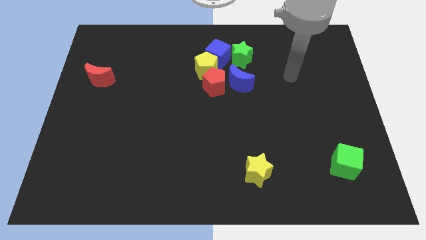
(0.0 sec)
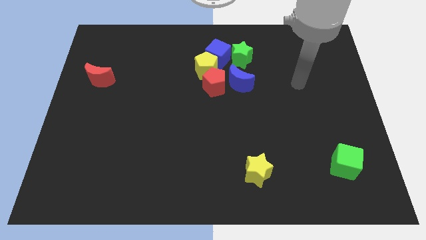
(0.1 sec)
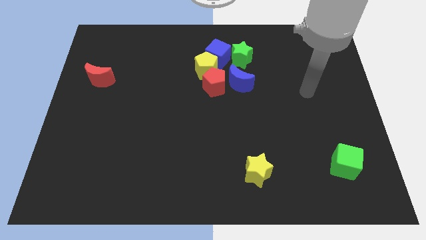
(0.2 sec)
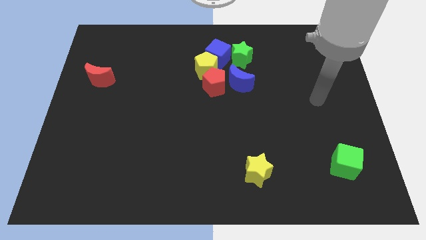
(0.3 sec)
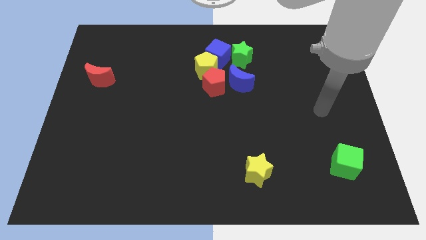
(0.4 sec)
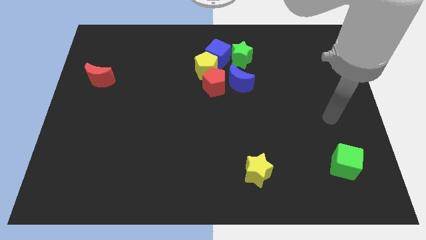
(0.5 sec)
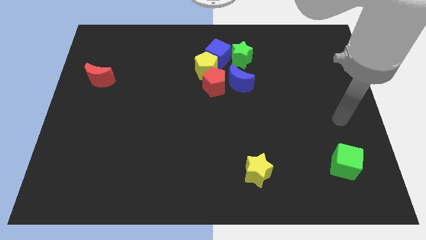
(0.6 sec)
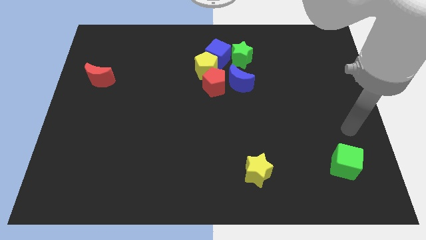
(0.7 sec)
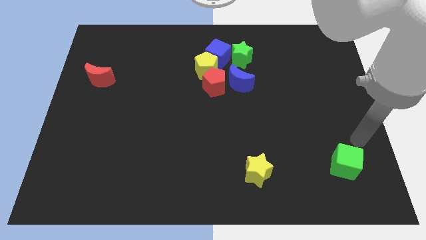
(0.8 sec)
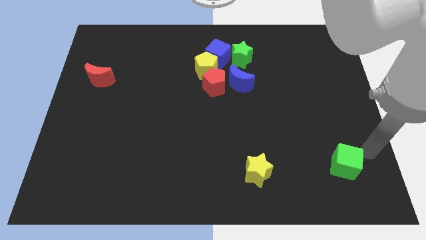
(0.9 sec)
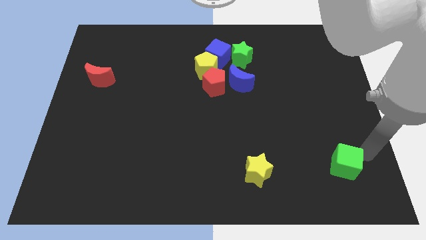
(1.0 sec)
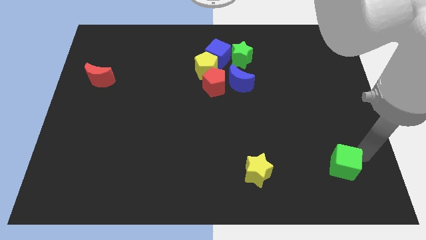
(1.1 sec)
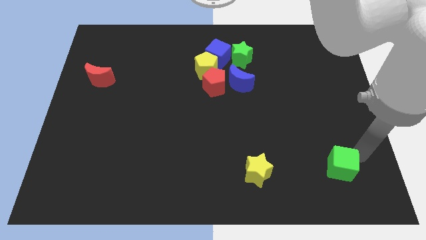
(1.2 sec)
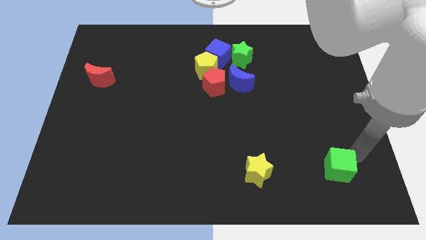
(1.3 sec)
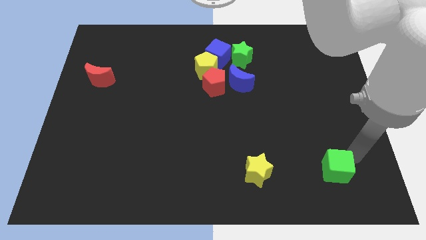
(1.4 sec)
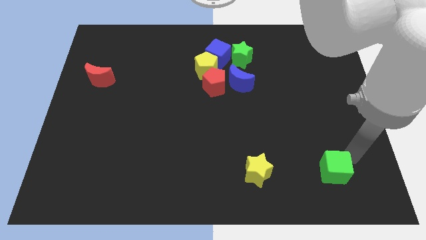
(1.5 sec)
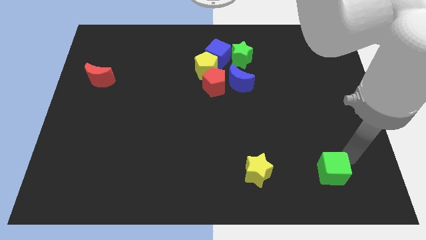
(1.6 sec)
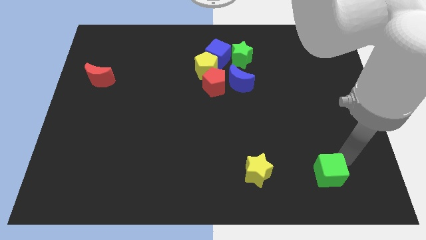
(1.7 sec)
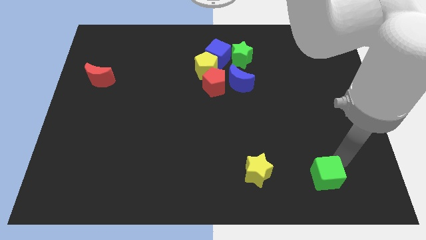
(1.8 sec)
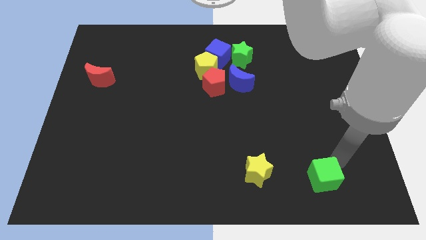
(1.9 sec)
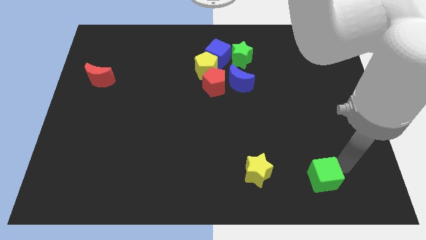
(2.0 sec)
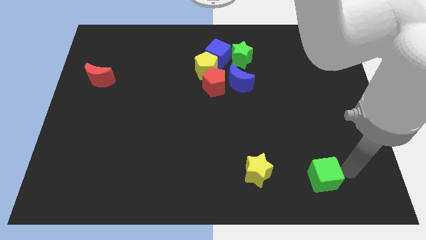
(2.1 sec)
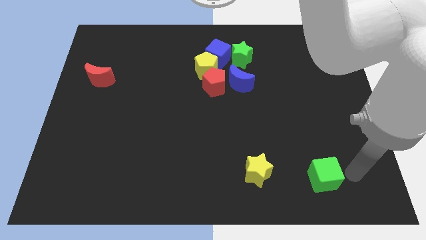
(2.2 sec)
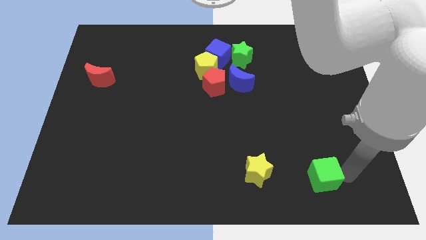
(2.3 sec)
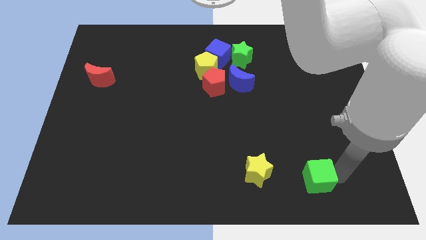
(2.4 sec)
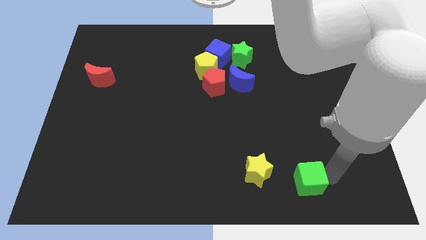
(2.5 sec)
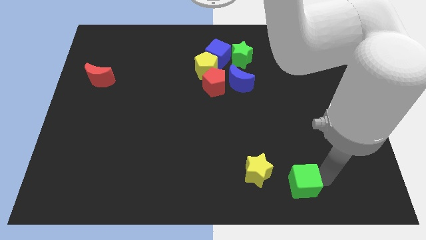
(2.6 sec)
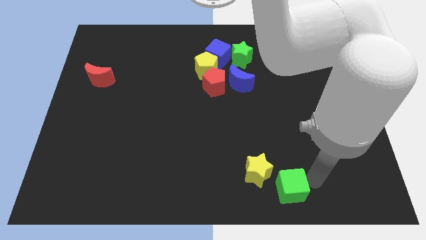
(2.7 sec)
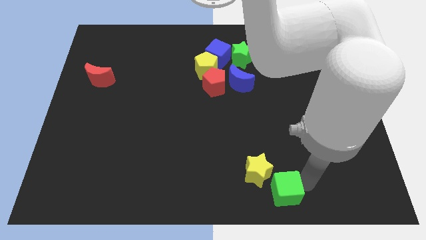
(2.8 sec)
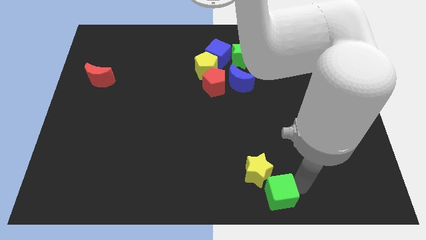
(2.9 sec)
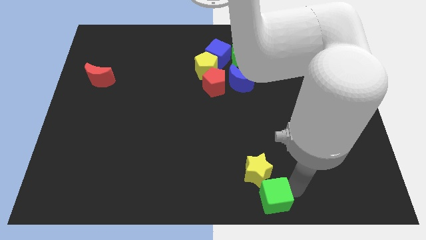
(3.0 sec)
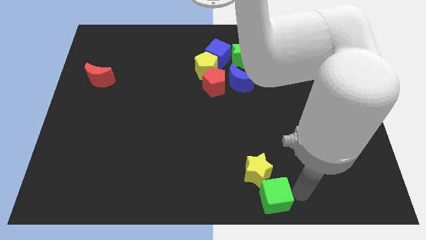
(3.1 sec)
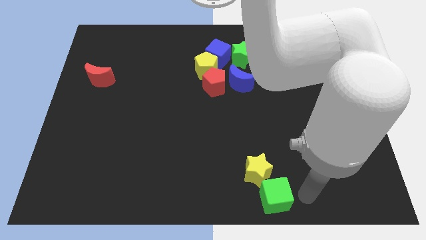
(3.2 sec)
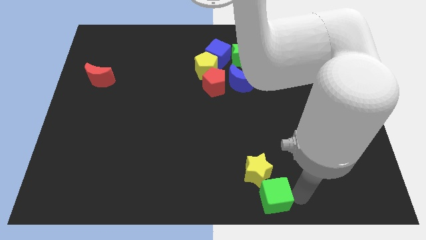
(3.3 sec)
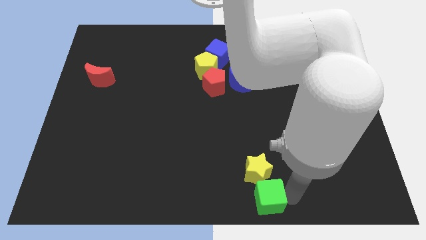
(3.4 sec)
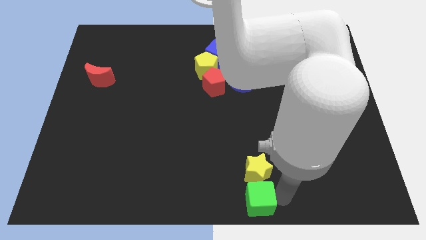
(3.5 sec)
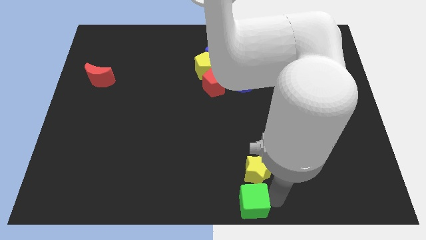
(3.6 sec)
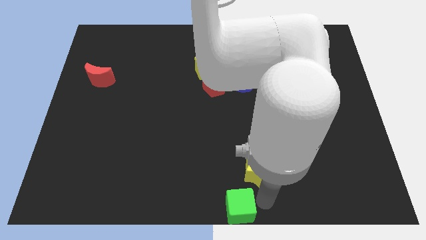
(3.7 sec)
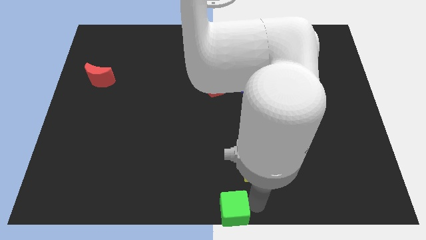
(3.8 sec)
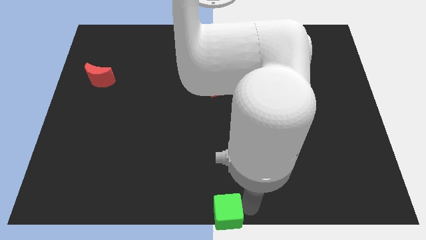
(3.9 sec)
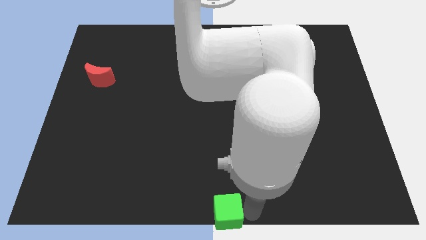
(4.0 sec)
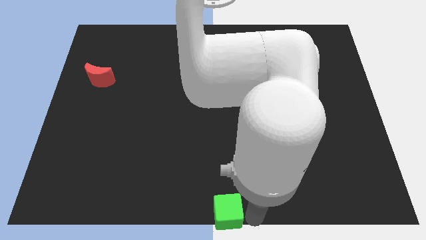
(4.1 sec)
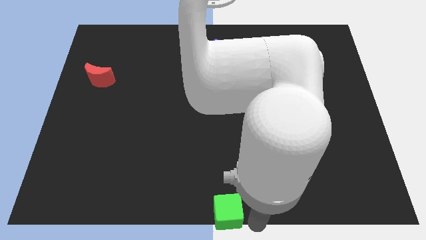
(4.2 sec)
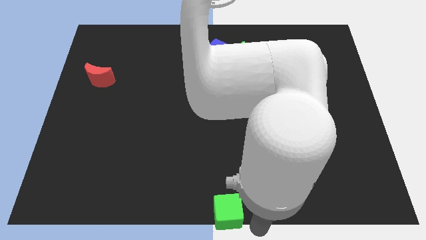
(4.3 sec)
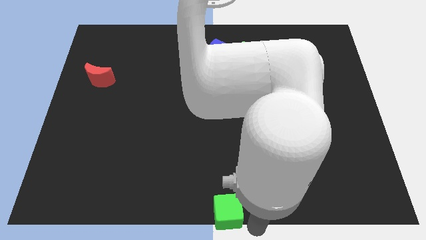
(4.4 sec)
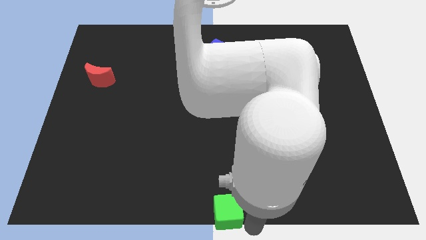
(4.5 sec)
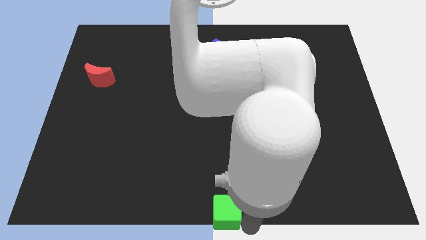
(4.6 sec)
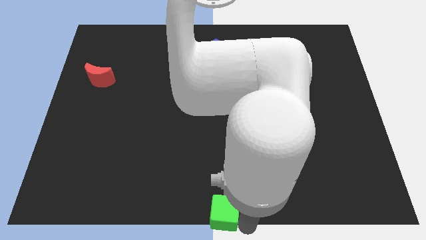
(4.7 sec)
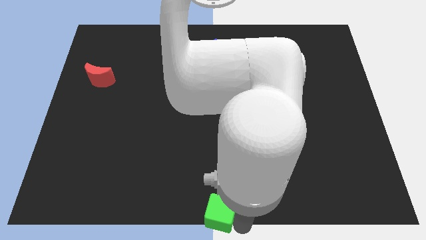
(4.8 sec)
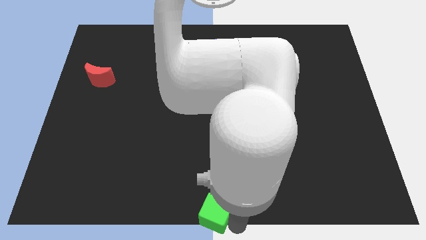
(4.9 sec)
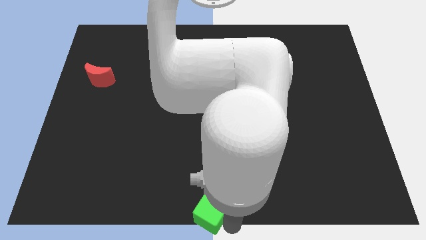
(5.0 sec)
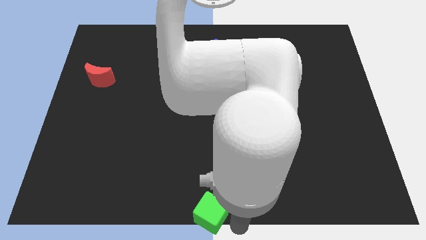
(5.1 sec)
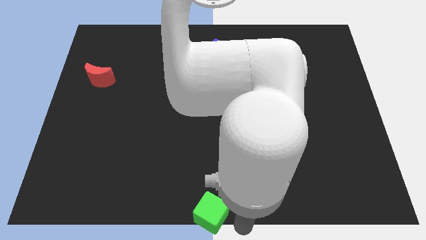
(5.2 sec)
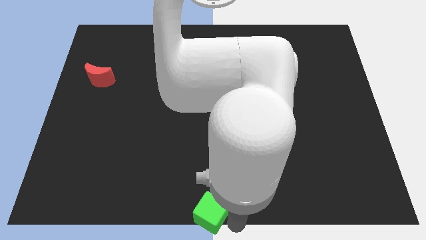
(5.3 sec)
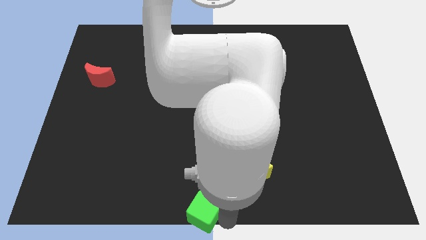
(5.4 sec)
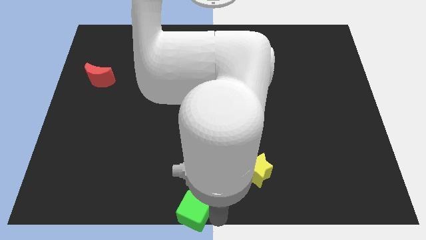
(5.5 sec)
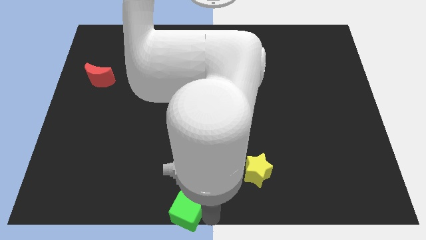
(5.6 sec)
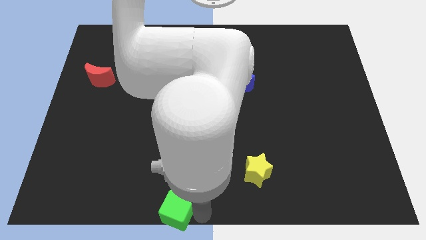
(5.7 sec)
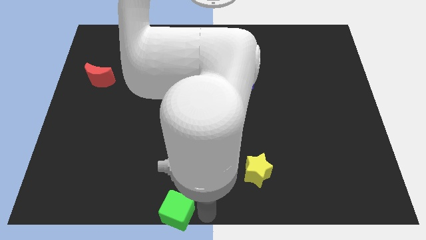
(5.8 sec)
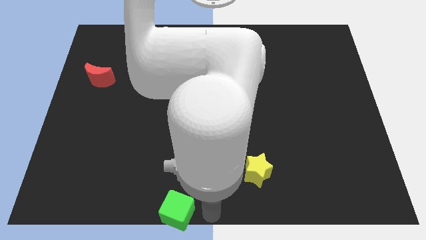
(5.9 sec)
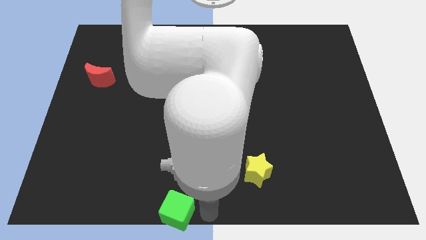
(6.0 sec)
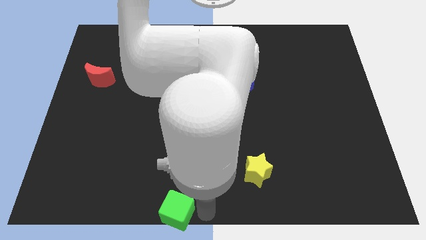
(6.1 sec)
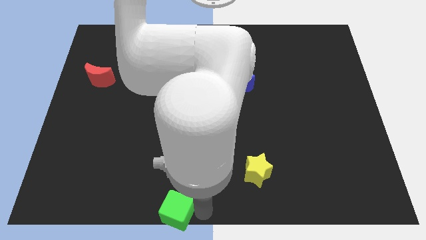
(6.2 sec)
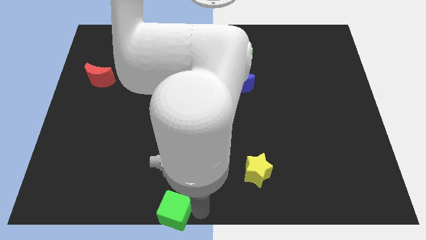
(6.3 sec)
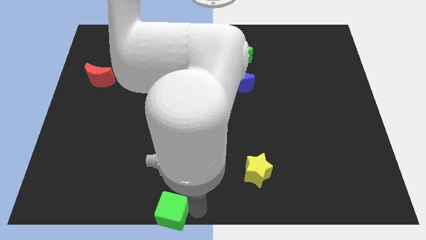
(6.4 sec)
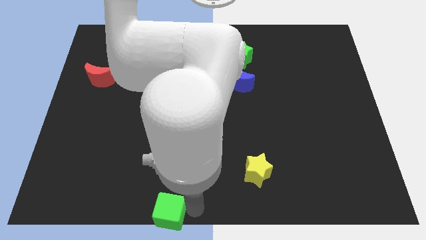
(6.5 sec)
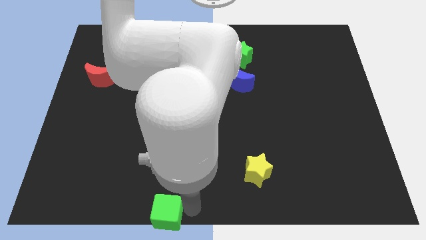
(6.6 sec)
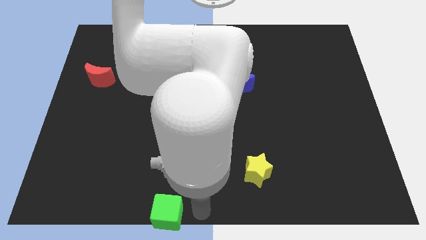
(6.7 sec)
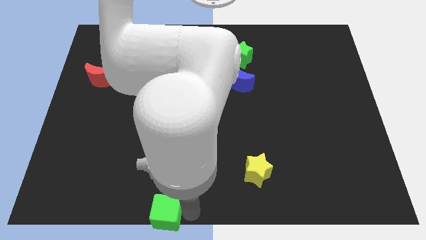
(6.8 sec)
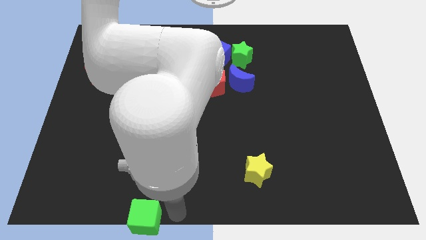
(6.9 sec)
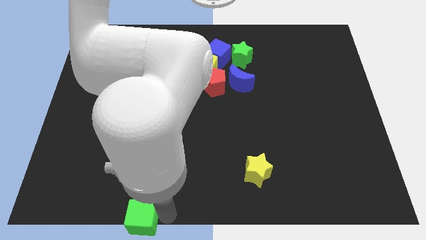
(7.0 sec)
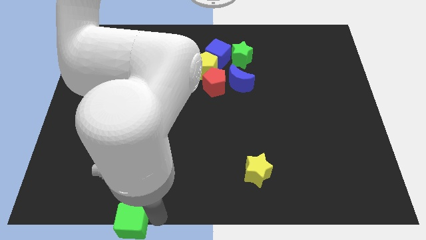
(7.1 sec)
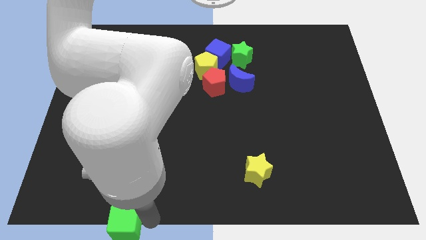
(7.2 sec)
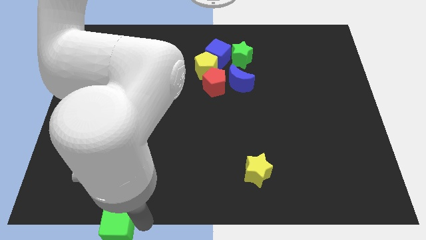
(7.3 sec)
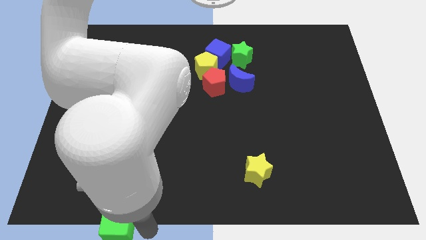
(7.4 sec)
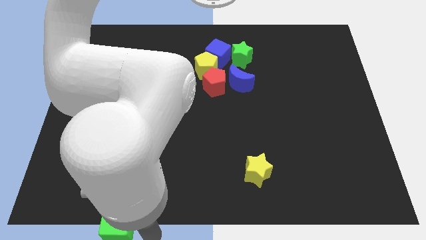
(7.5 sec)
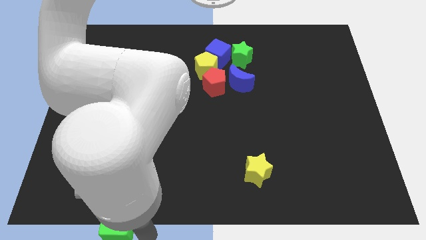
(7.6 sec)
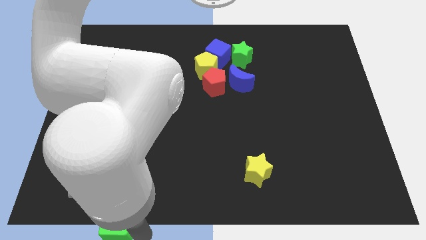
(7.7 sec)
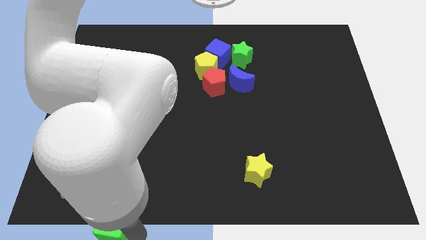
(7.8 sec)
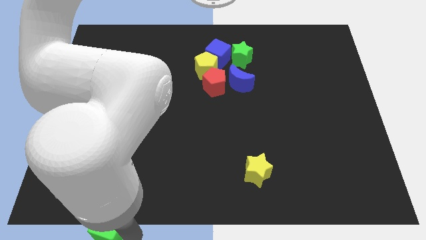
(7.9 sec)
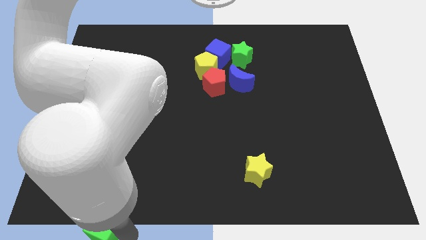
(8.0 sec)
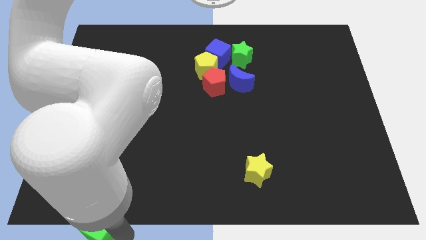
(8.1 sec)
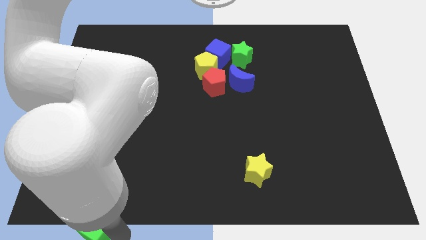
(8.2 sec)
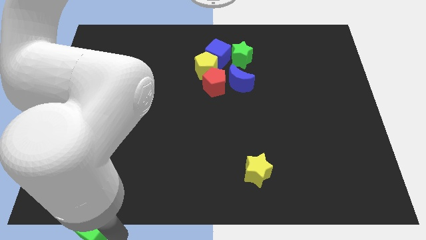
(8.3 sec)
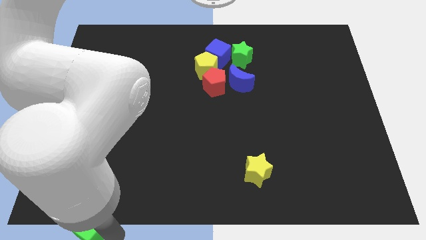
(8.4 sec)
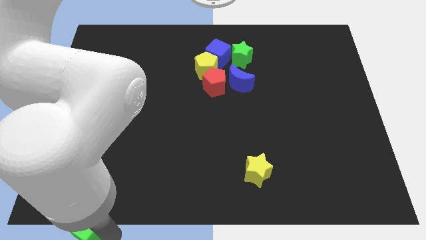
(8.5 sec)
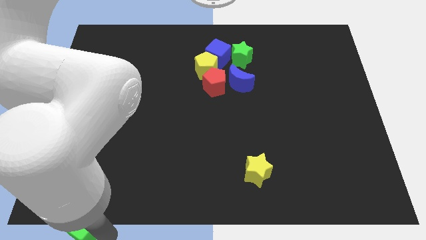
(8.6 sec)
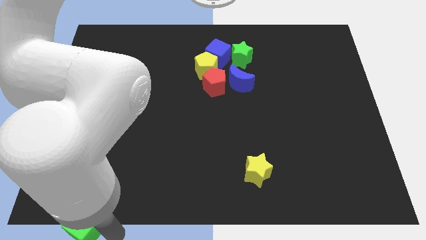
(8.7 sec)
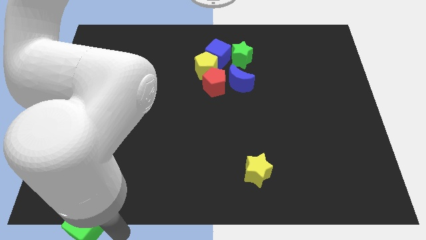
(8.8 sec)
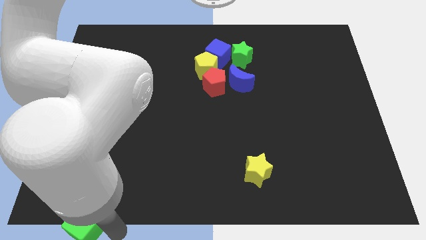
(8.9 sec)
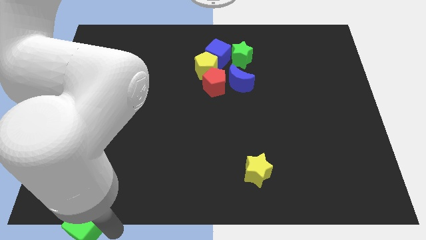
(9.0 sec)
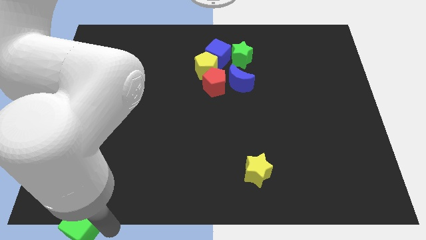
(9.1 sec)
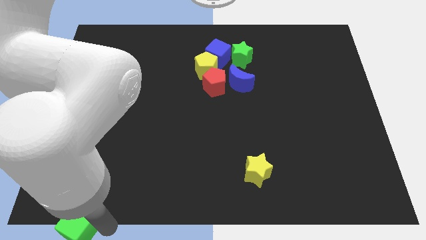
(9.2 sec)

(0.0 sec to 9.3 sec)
push the green cube to the bottom left corner
